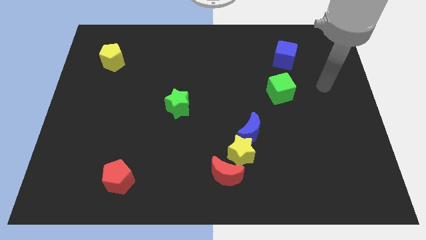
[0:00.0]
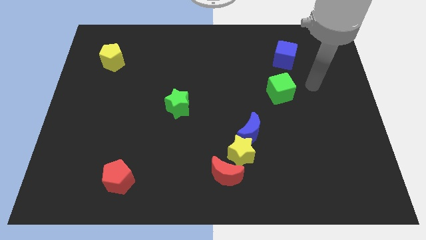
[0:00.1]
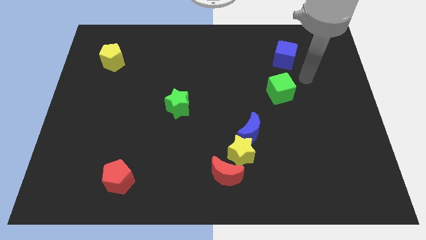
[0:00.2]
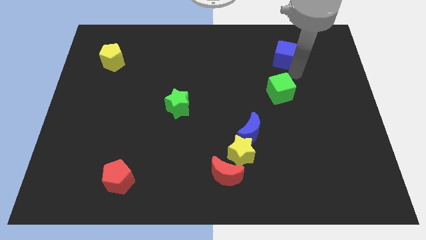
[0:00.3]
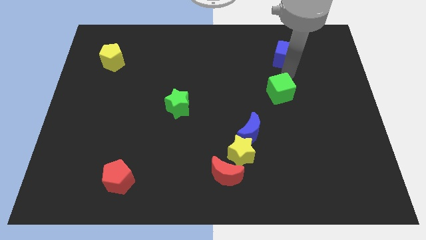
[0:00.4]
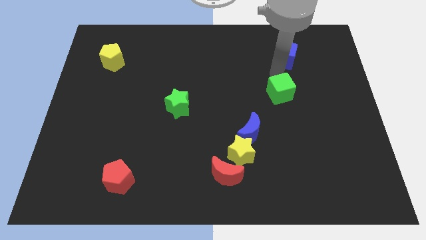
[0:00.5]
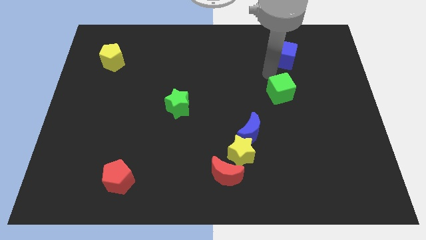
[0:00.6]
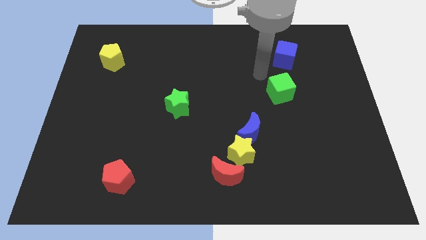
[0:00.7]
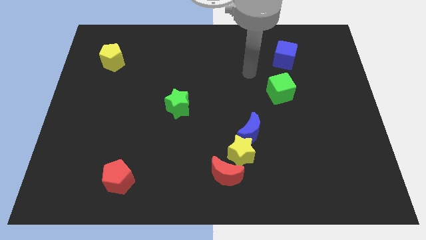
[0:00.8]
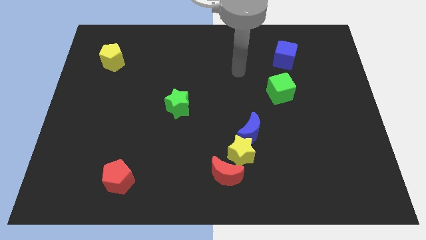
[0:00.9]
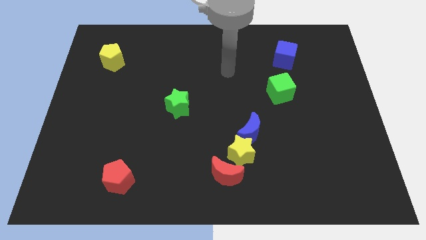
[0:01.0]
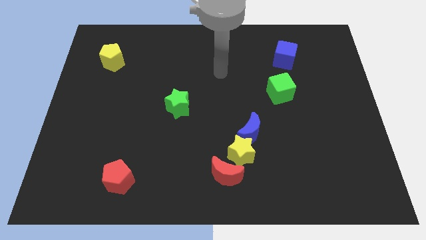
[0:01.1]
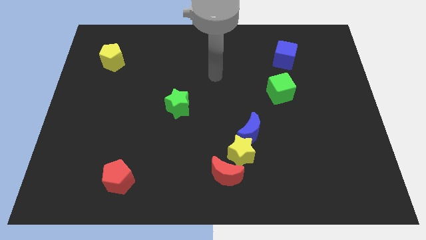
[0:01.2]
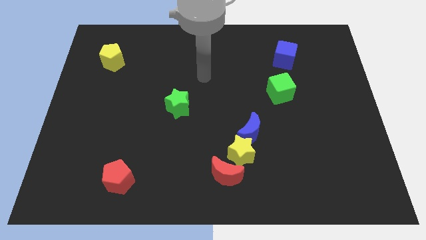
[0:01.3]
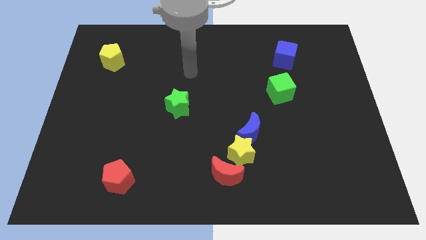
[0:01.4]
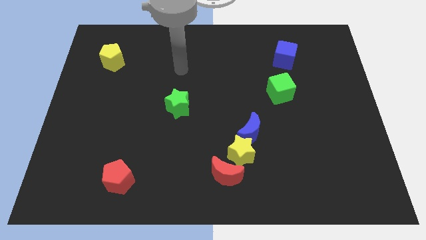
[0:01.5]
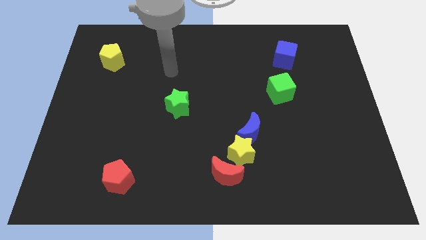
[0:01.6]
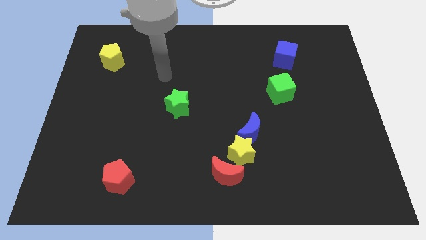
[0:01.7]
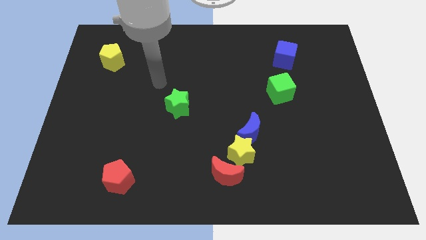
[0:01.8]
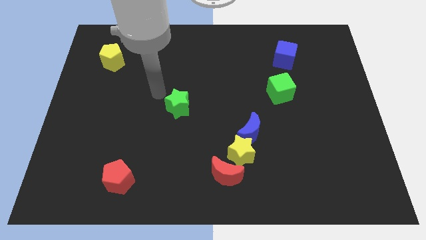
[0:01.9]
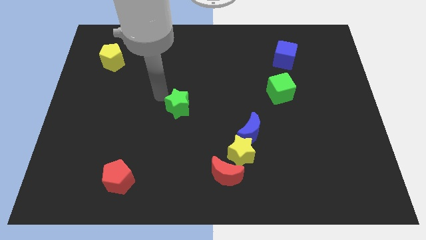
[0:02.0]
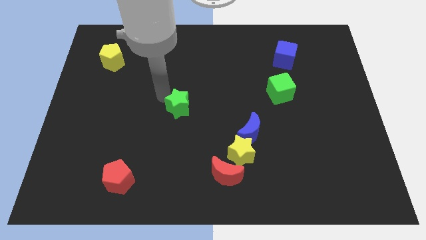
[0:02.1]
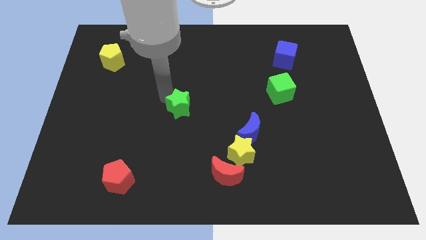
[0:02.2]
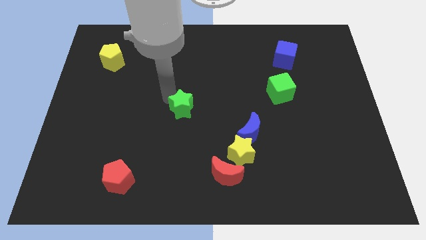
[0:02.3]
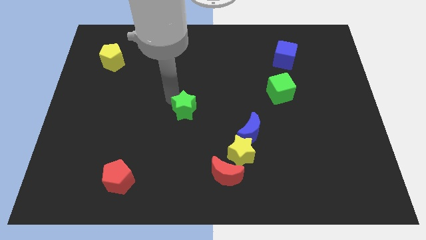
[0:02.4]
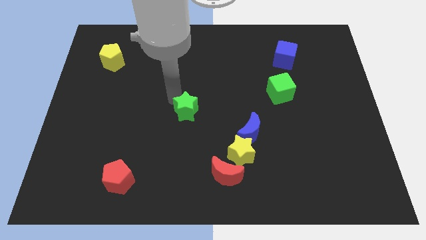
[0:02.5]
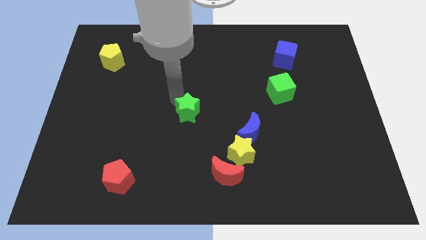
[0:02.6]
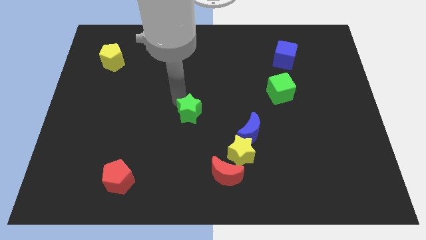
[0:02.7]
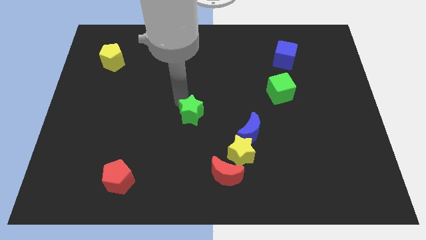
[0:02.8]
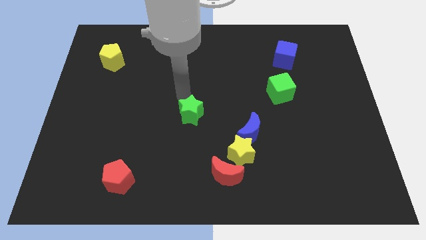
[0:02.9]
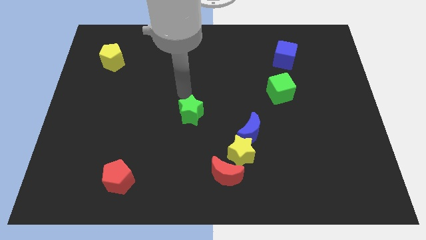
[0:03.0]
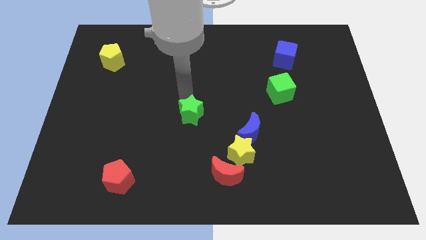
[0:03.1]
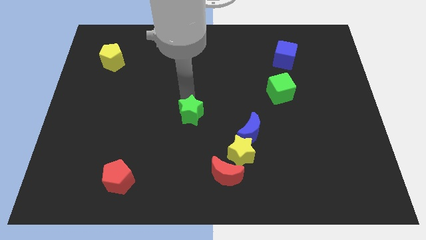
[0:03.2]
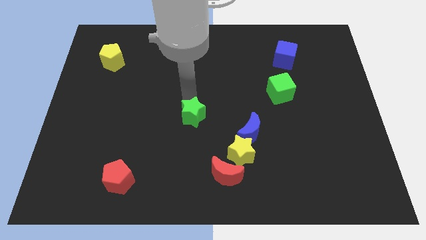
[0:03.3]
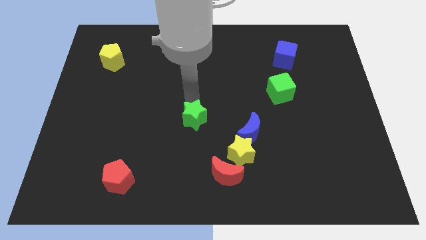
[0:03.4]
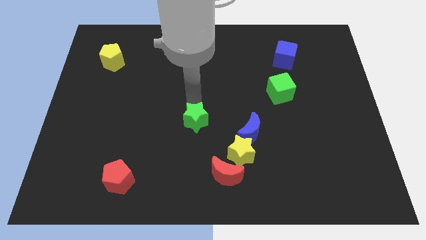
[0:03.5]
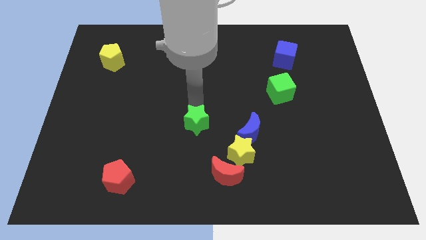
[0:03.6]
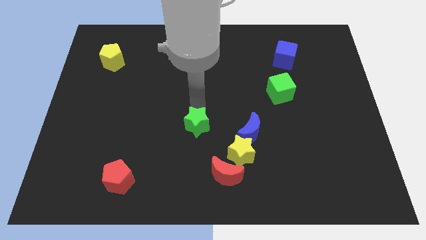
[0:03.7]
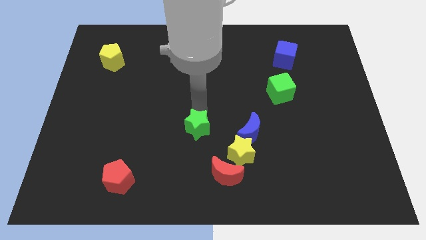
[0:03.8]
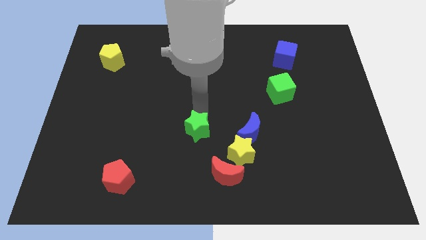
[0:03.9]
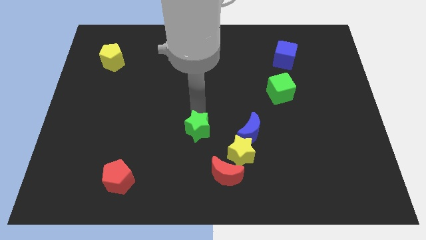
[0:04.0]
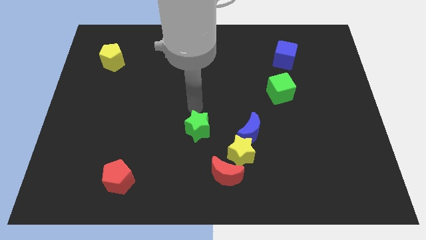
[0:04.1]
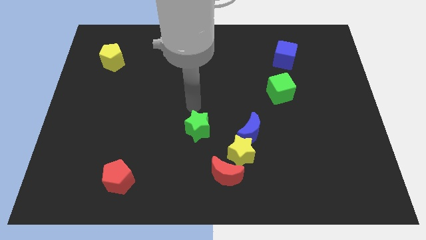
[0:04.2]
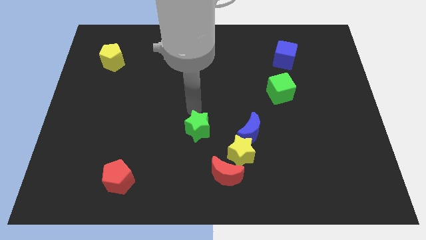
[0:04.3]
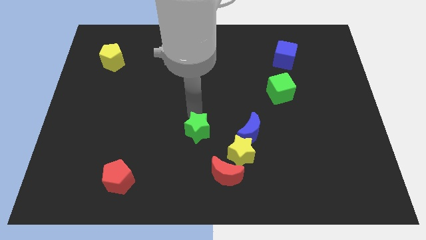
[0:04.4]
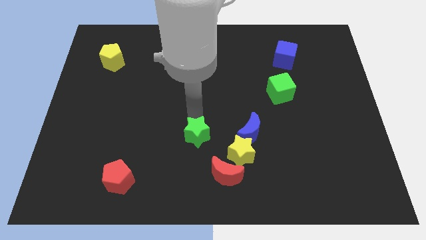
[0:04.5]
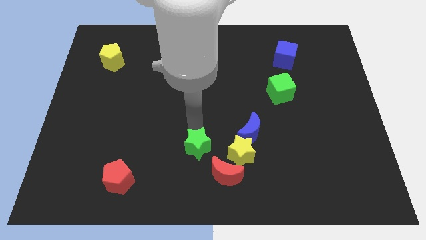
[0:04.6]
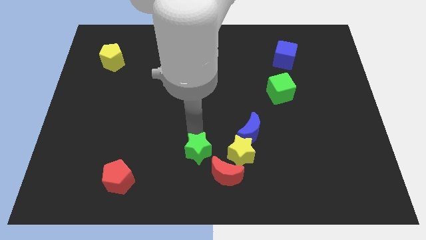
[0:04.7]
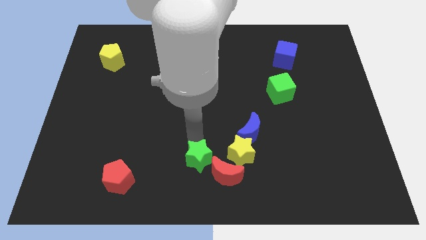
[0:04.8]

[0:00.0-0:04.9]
put the green star to the bottom side

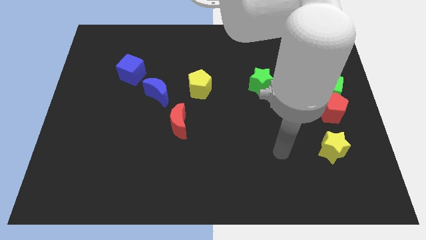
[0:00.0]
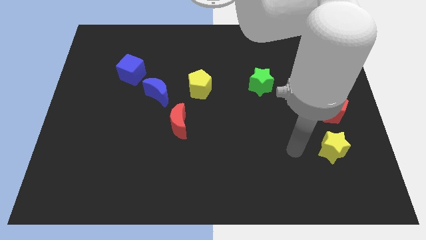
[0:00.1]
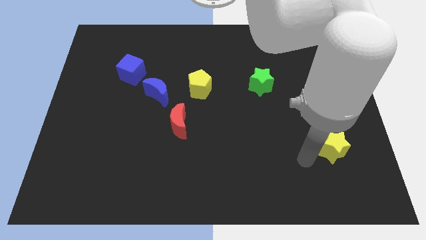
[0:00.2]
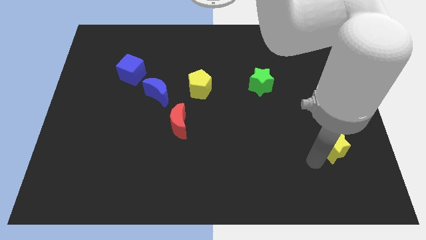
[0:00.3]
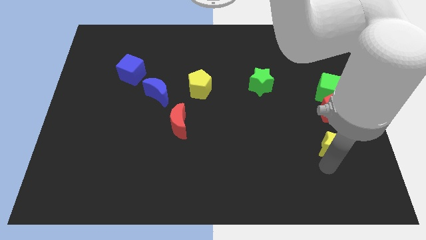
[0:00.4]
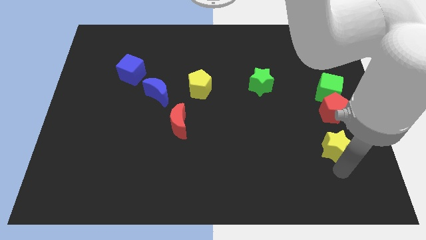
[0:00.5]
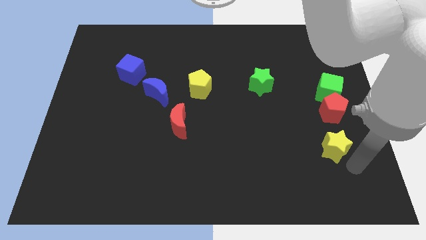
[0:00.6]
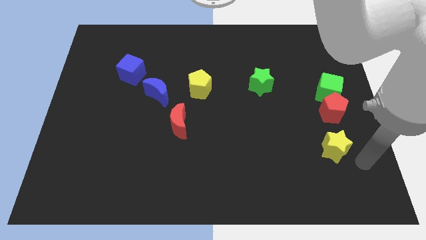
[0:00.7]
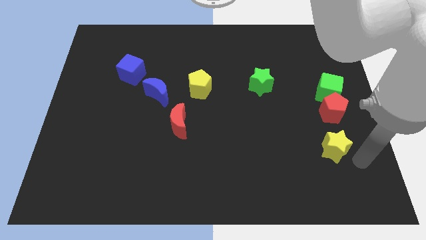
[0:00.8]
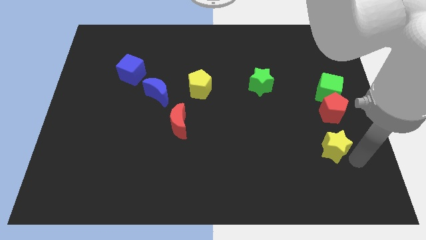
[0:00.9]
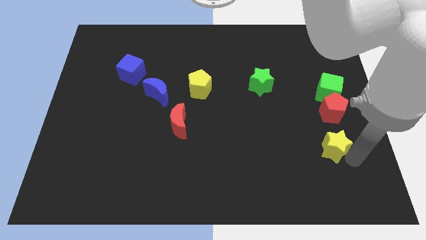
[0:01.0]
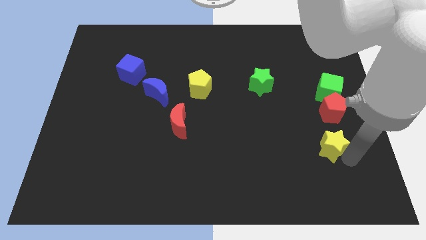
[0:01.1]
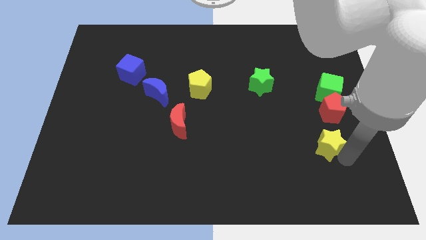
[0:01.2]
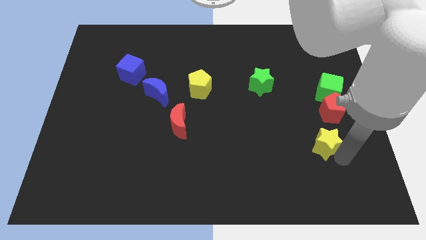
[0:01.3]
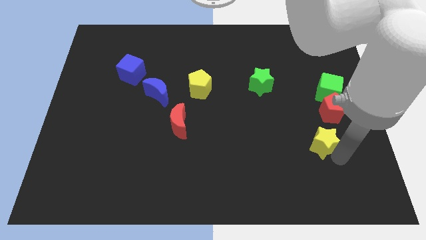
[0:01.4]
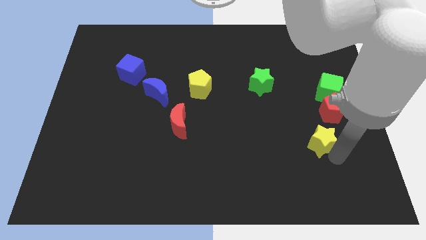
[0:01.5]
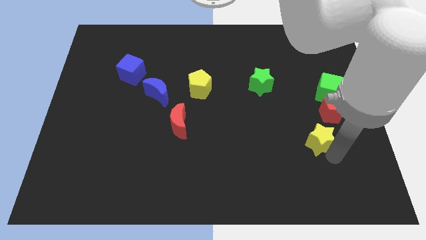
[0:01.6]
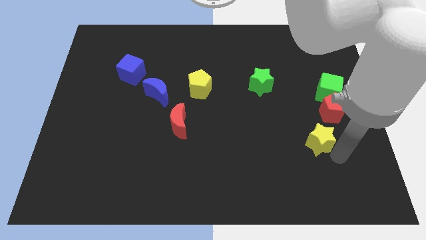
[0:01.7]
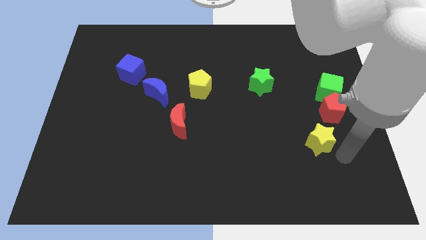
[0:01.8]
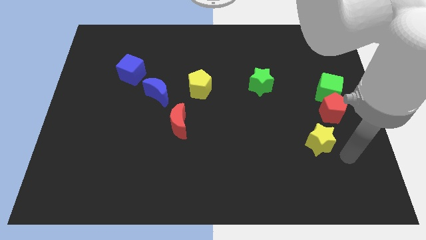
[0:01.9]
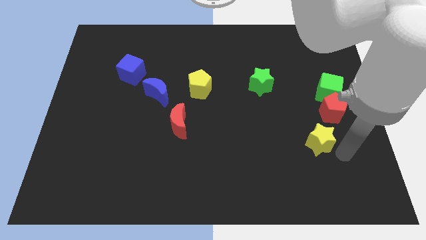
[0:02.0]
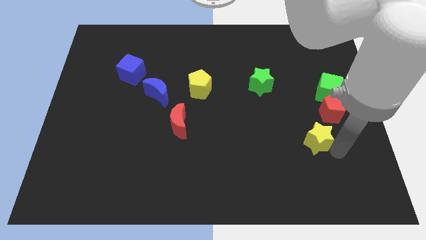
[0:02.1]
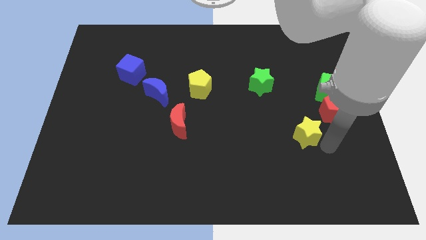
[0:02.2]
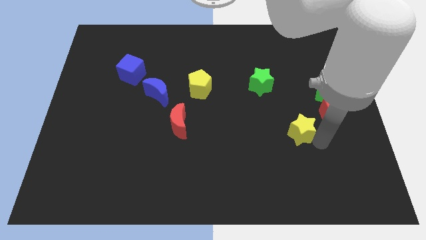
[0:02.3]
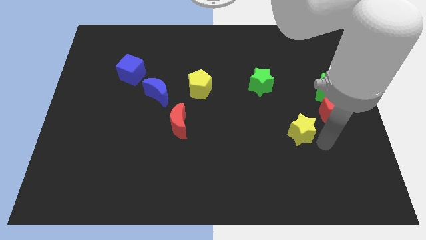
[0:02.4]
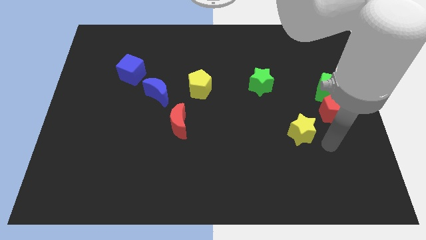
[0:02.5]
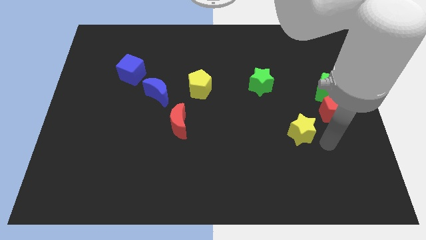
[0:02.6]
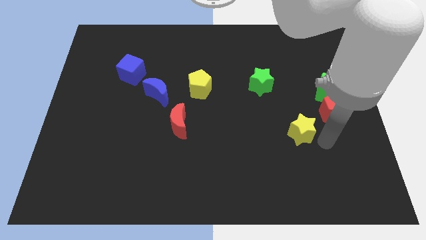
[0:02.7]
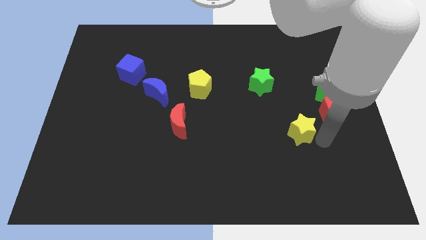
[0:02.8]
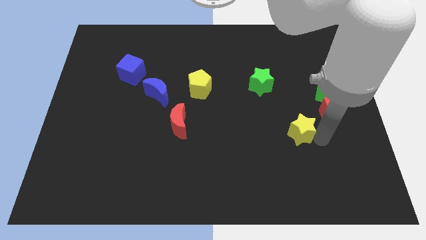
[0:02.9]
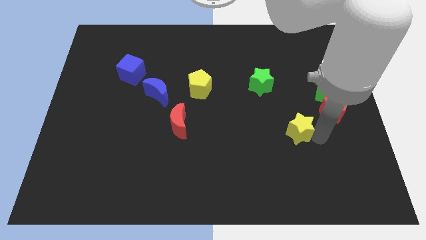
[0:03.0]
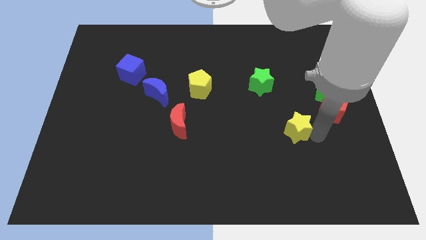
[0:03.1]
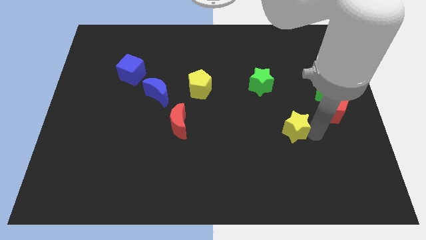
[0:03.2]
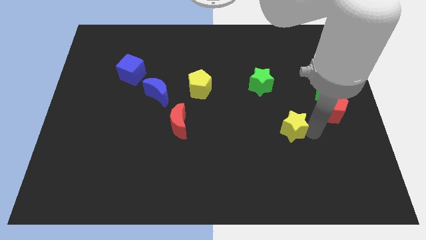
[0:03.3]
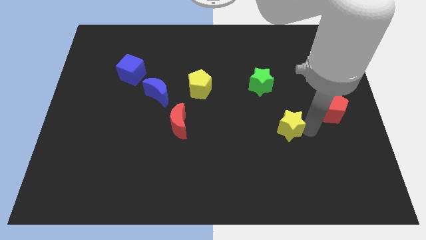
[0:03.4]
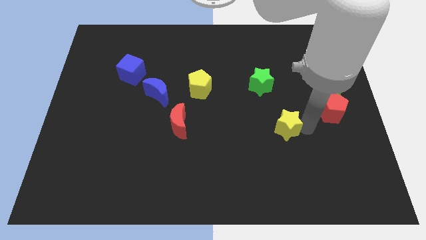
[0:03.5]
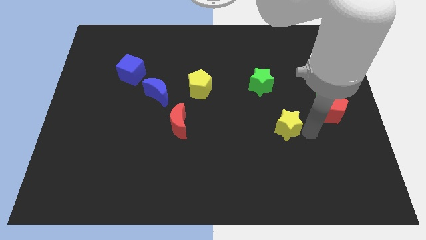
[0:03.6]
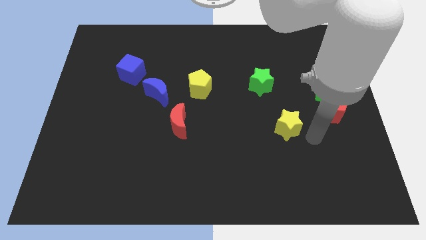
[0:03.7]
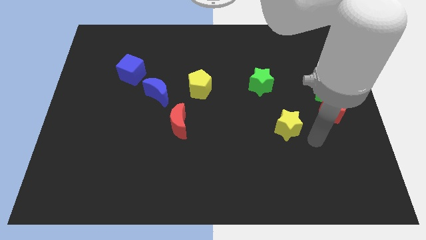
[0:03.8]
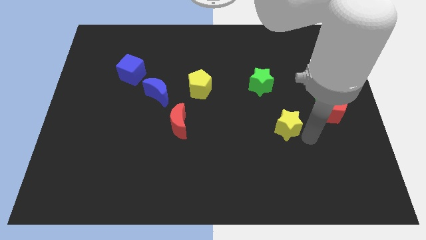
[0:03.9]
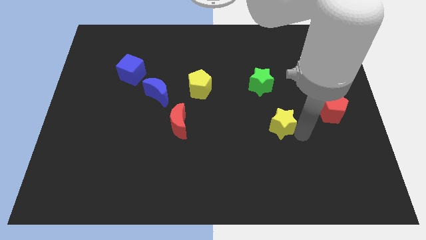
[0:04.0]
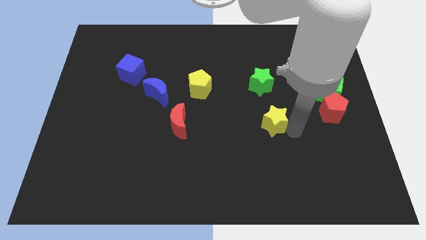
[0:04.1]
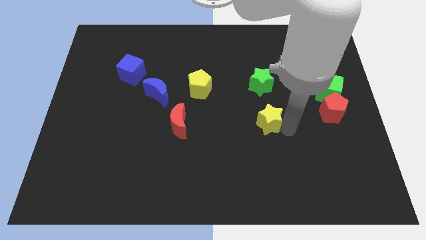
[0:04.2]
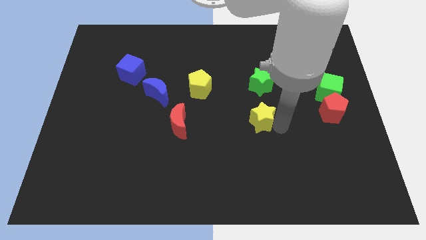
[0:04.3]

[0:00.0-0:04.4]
move the yellow star to the center of the board
